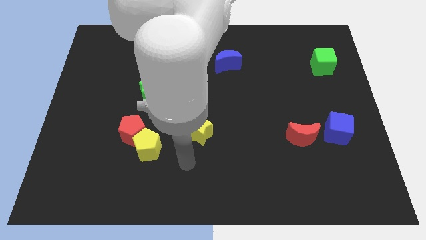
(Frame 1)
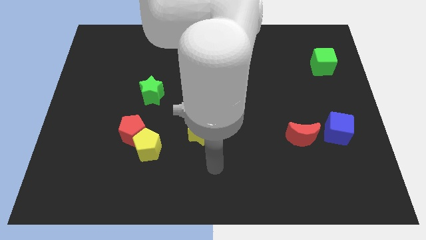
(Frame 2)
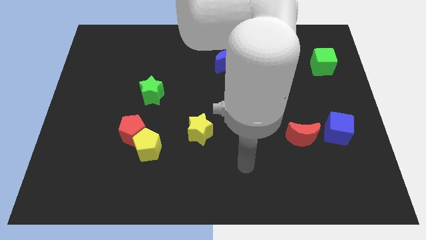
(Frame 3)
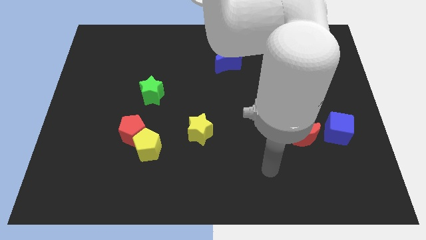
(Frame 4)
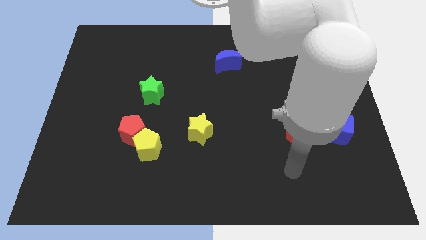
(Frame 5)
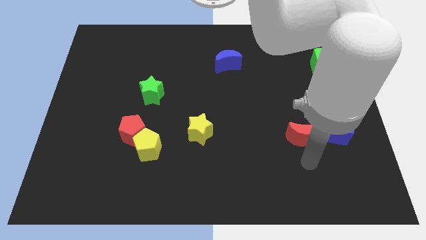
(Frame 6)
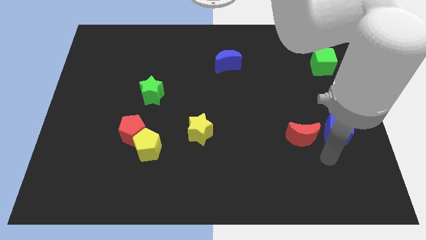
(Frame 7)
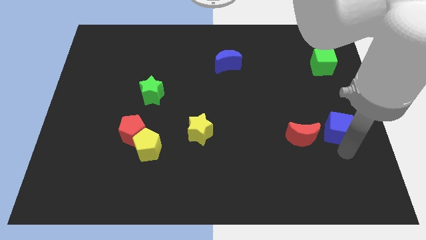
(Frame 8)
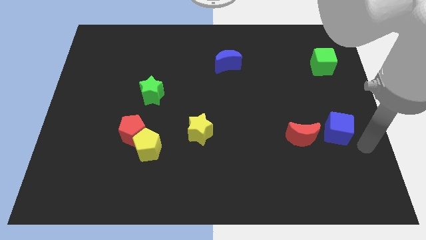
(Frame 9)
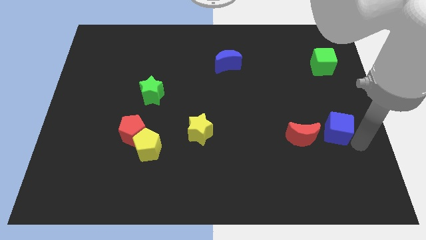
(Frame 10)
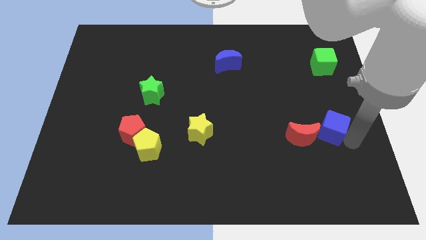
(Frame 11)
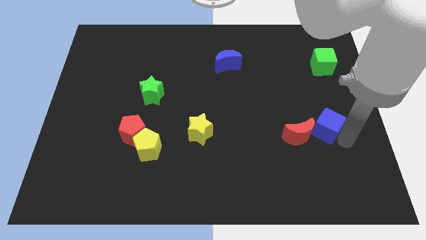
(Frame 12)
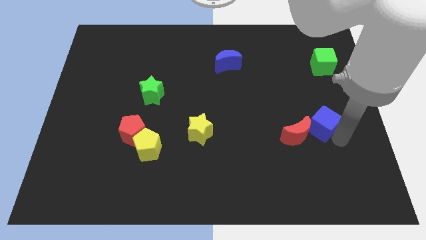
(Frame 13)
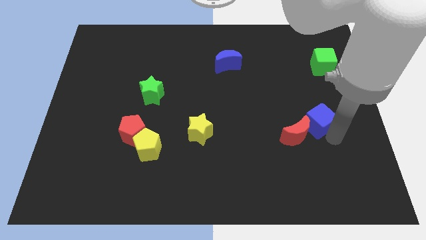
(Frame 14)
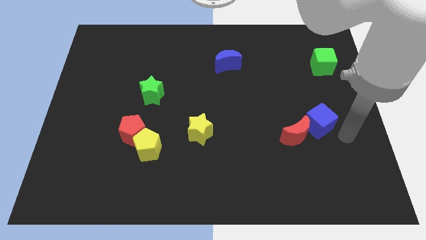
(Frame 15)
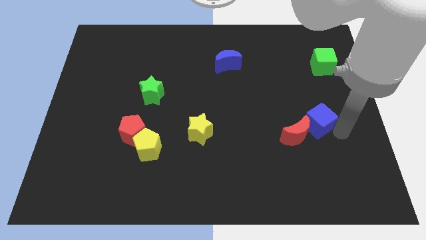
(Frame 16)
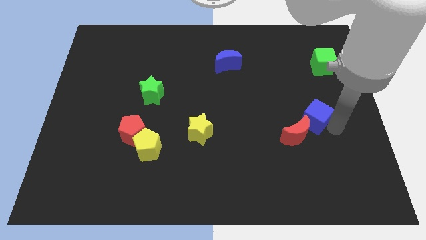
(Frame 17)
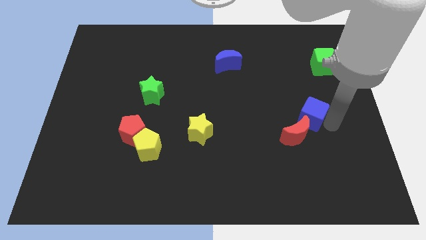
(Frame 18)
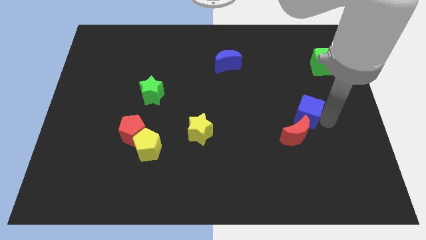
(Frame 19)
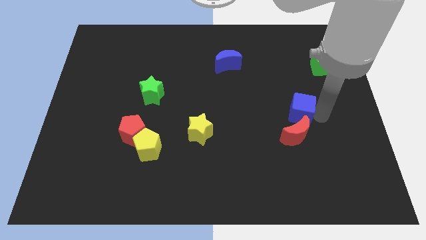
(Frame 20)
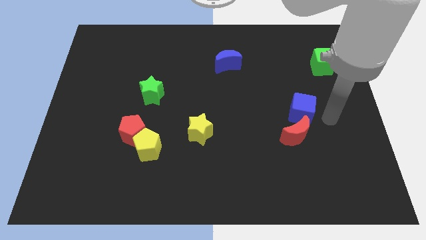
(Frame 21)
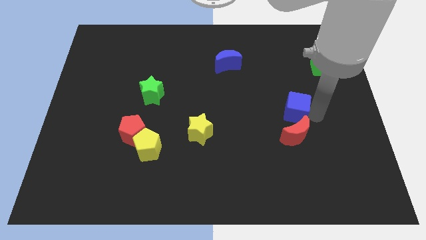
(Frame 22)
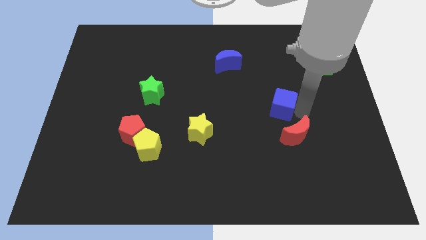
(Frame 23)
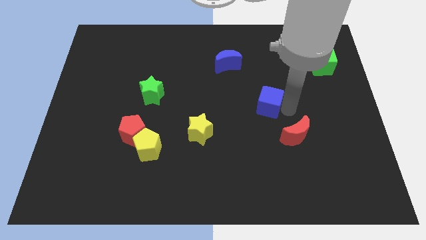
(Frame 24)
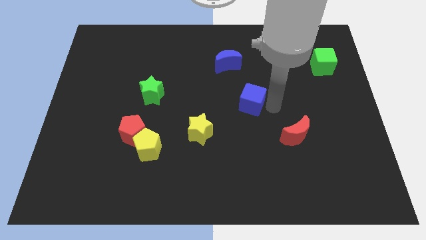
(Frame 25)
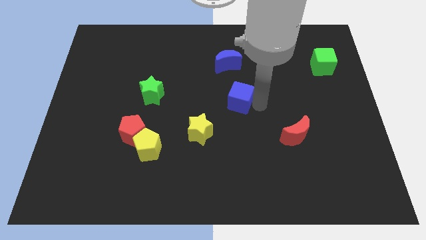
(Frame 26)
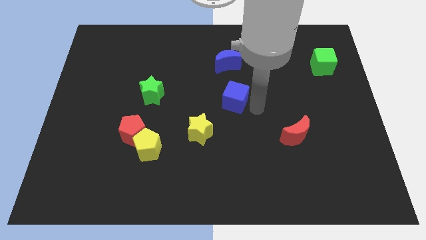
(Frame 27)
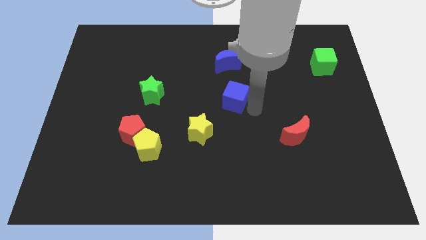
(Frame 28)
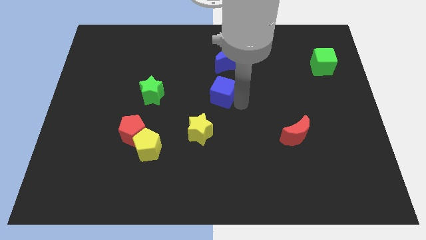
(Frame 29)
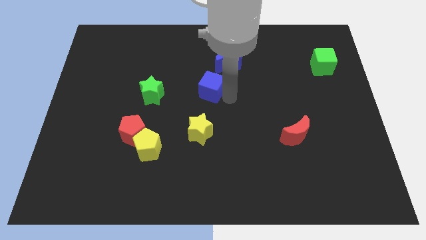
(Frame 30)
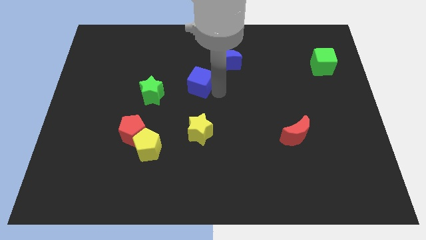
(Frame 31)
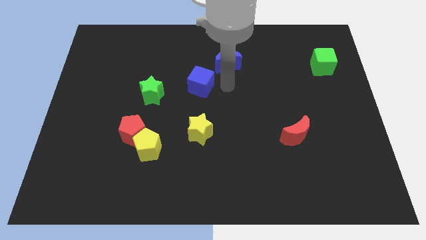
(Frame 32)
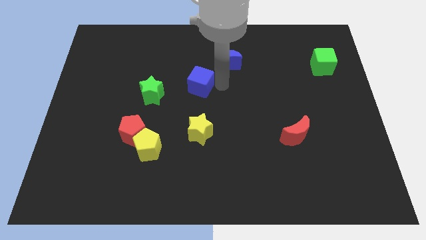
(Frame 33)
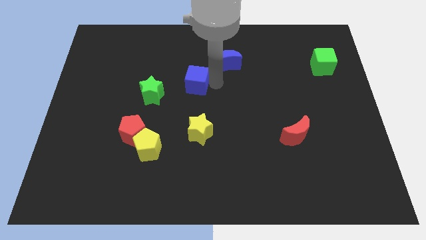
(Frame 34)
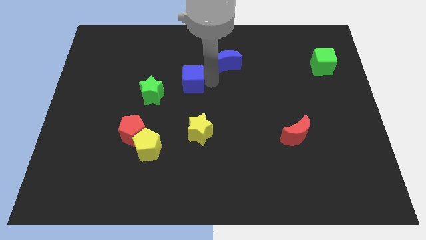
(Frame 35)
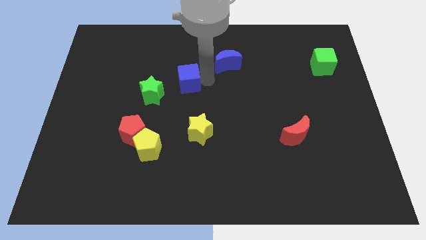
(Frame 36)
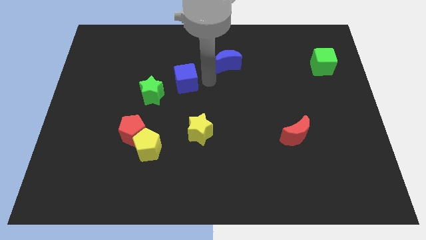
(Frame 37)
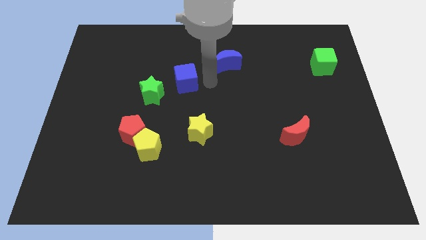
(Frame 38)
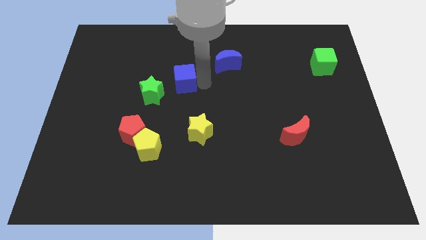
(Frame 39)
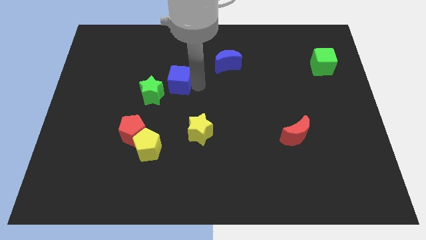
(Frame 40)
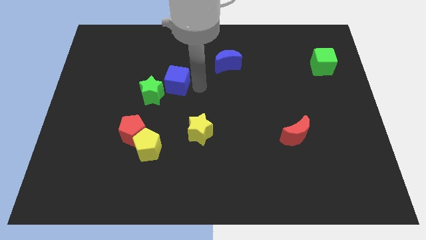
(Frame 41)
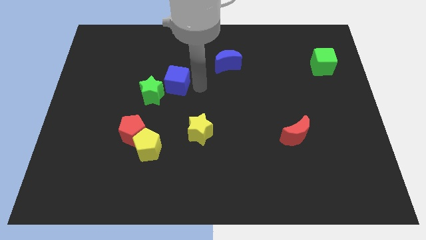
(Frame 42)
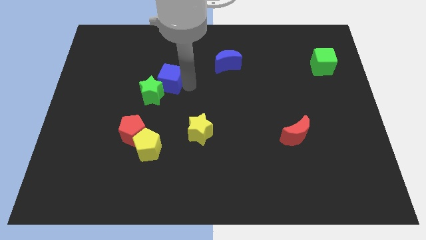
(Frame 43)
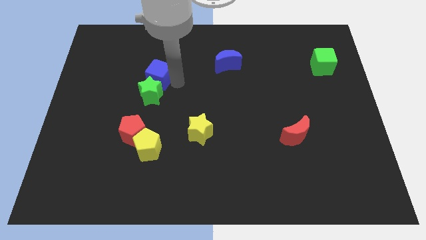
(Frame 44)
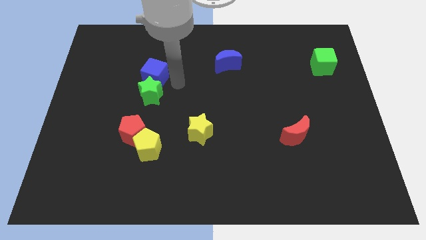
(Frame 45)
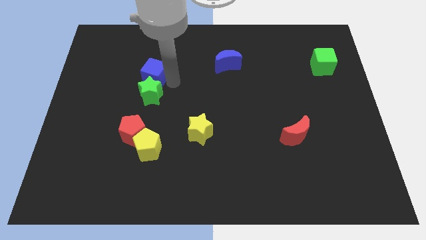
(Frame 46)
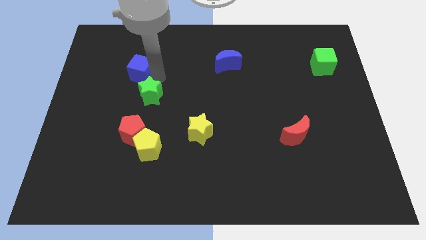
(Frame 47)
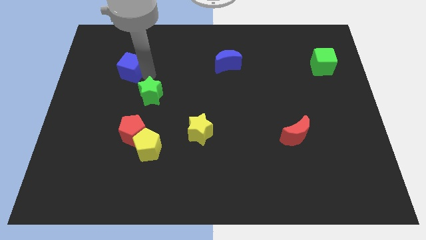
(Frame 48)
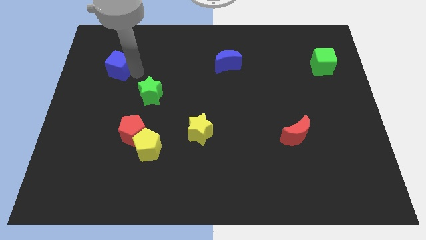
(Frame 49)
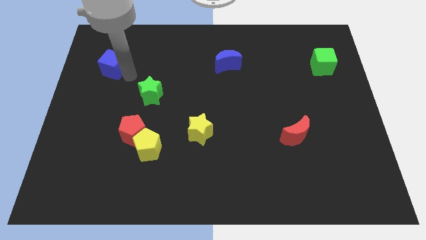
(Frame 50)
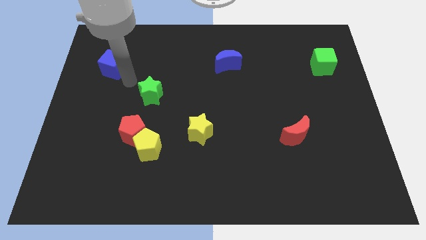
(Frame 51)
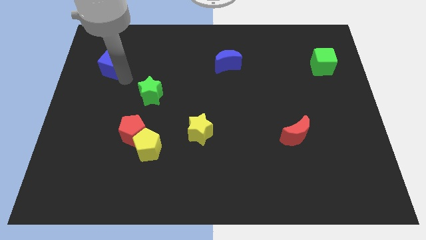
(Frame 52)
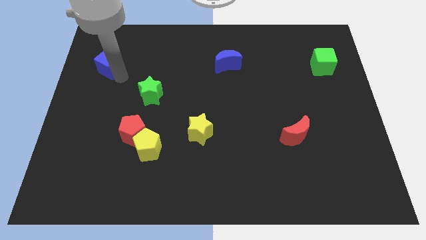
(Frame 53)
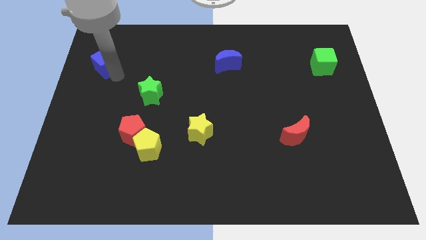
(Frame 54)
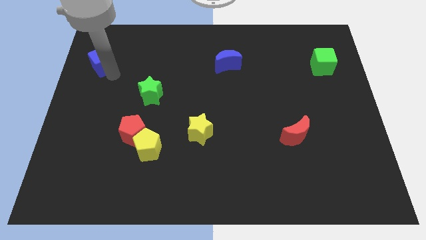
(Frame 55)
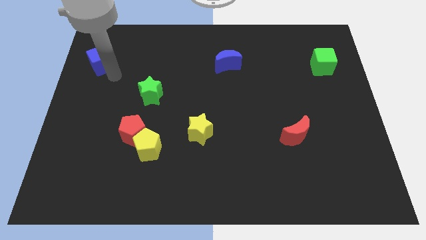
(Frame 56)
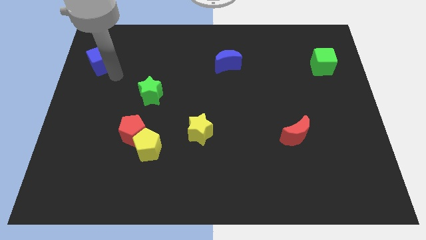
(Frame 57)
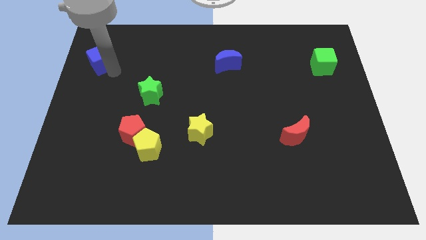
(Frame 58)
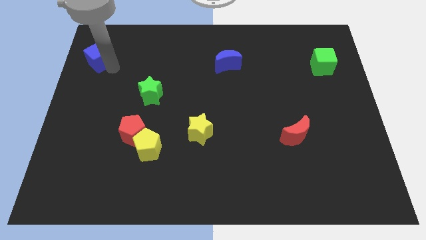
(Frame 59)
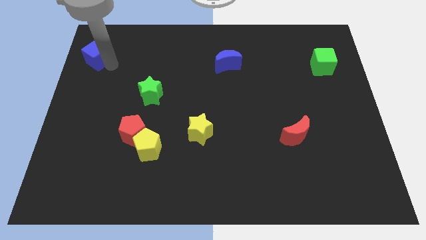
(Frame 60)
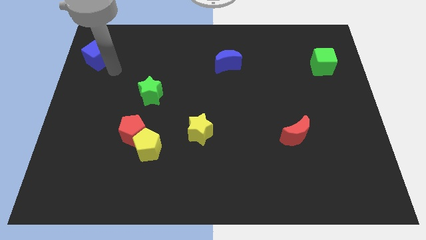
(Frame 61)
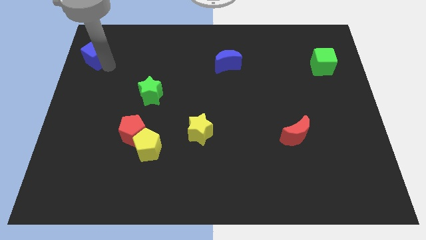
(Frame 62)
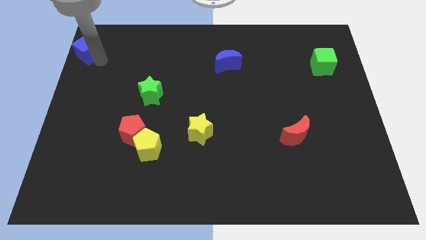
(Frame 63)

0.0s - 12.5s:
move the blue cube to the top left

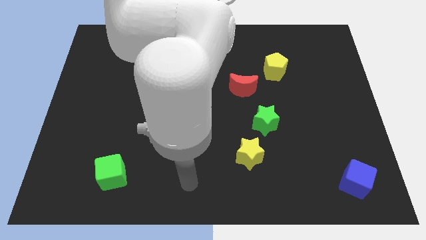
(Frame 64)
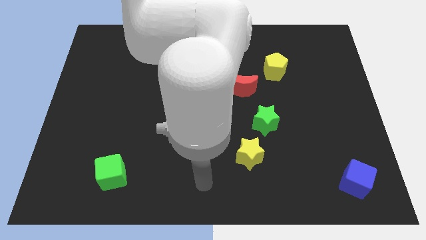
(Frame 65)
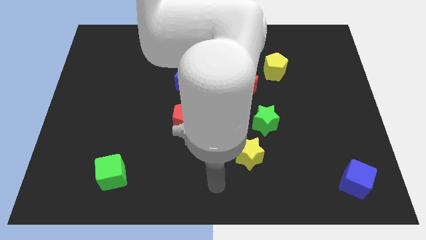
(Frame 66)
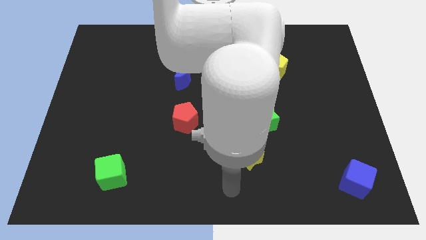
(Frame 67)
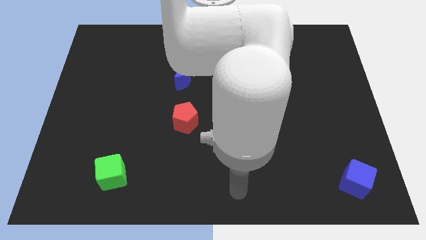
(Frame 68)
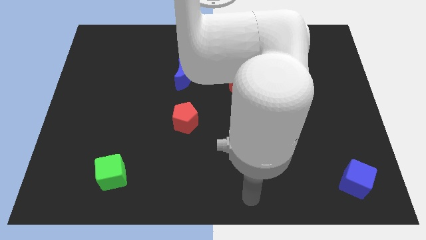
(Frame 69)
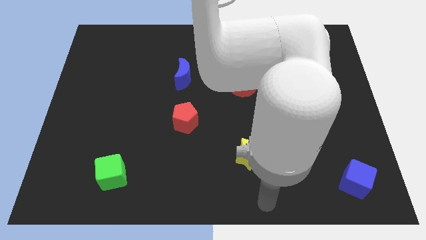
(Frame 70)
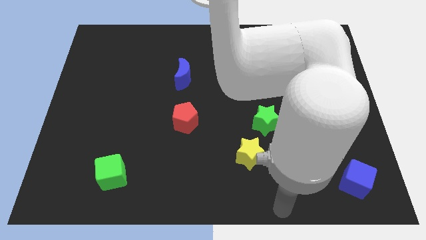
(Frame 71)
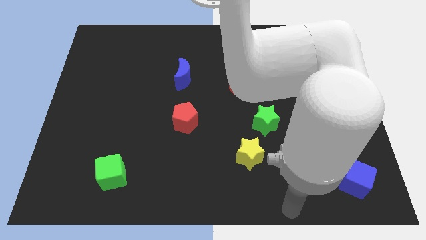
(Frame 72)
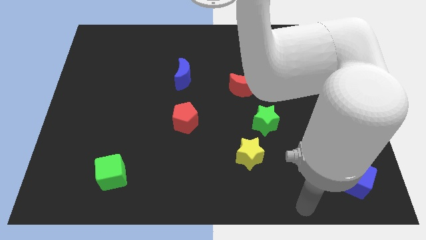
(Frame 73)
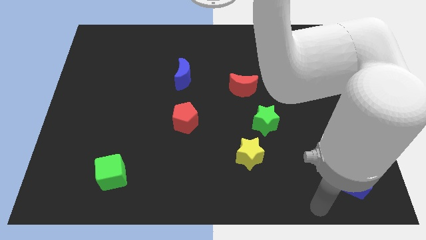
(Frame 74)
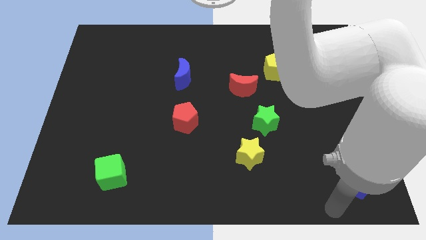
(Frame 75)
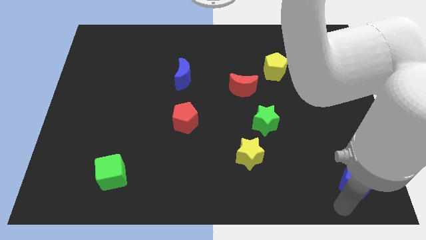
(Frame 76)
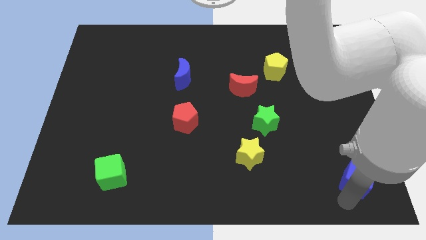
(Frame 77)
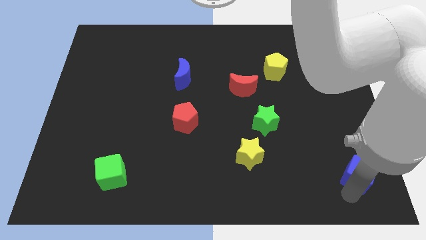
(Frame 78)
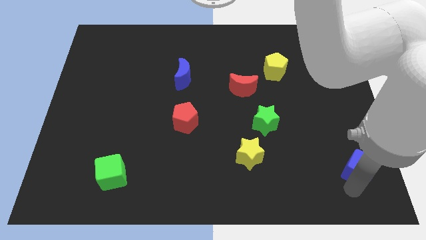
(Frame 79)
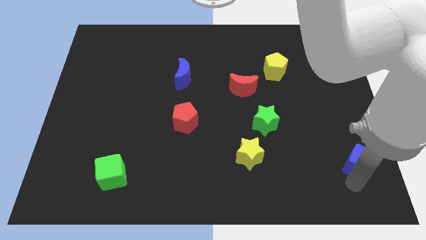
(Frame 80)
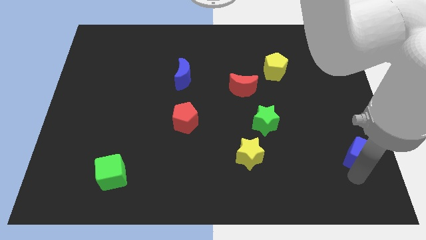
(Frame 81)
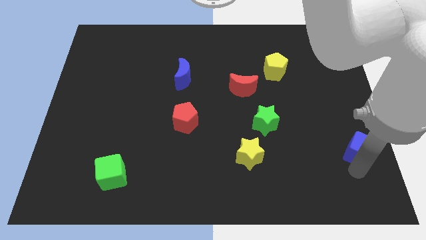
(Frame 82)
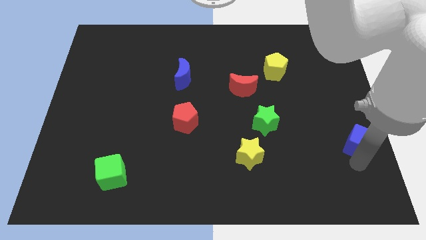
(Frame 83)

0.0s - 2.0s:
move the blue cube to the right side

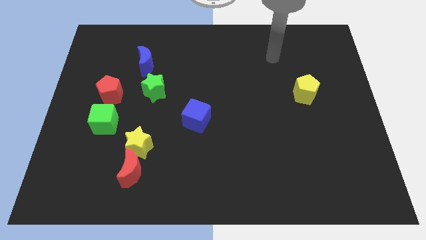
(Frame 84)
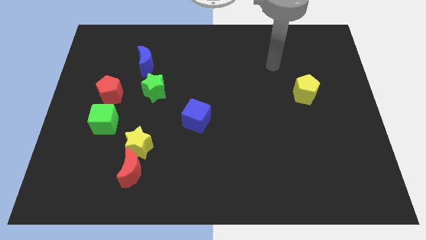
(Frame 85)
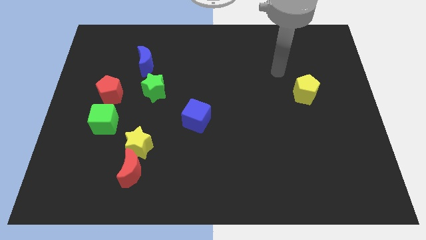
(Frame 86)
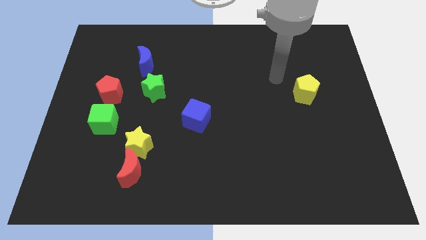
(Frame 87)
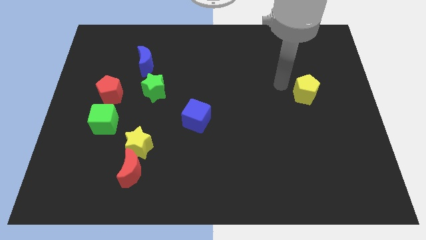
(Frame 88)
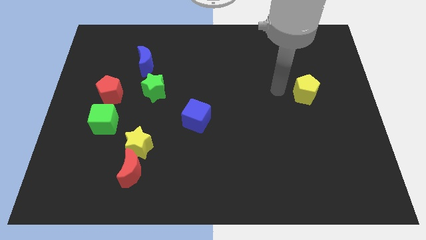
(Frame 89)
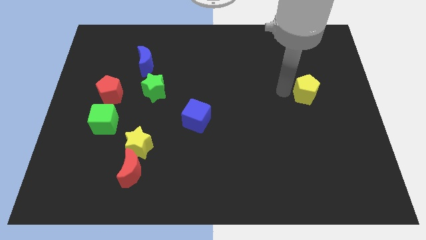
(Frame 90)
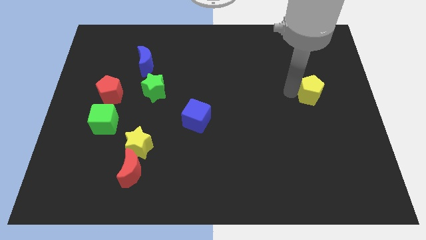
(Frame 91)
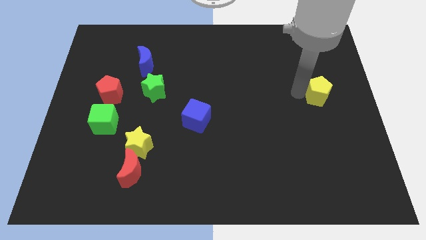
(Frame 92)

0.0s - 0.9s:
push the yellow pentagon to the right side
